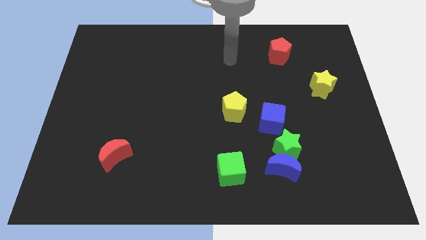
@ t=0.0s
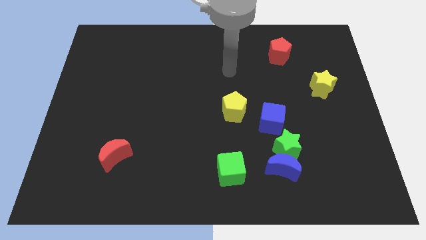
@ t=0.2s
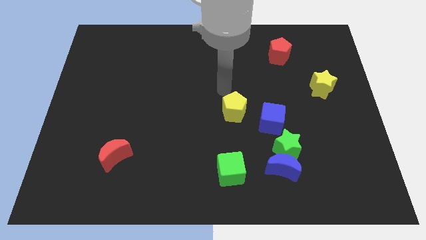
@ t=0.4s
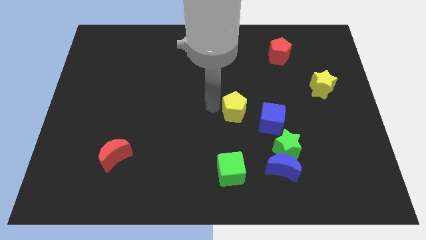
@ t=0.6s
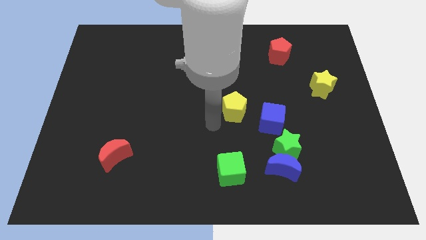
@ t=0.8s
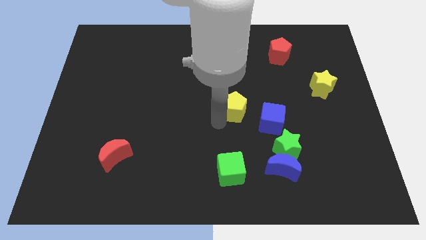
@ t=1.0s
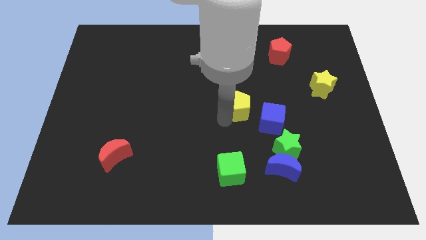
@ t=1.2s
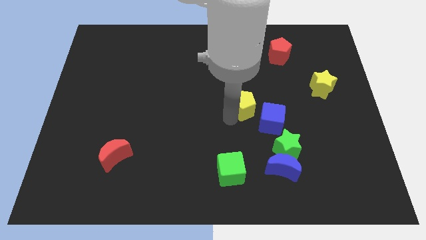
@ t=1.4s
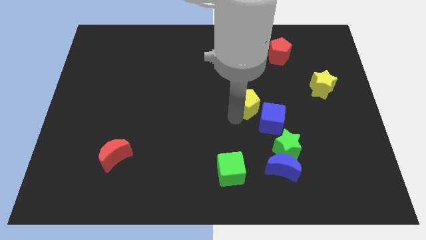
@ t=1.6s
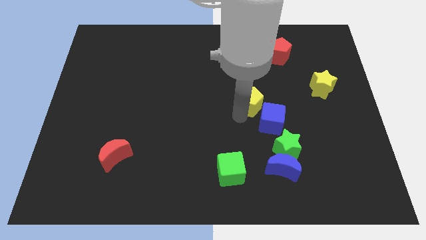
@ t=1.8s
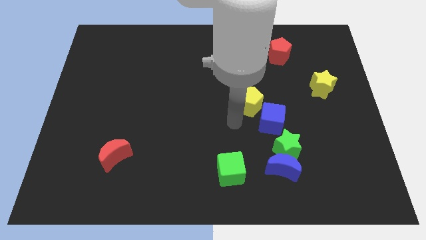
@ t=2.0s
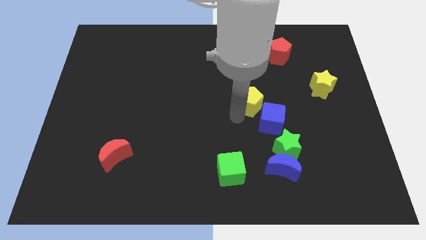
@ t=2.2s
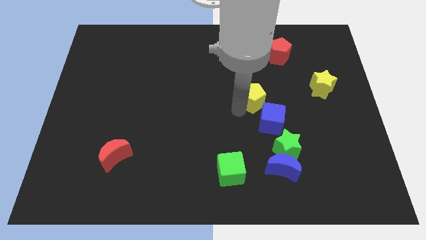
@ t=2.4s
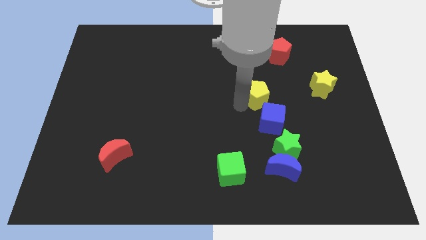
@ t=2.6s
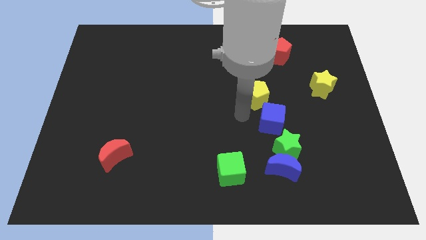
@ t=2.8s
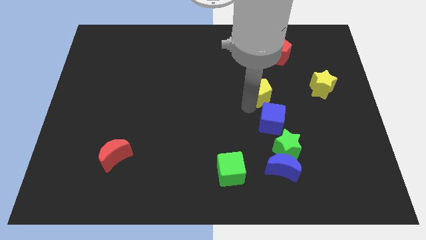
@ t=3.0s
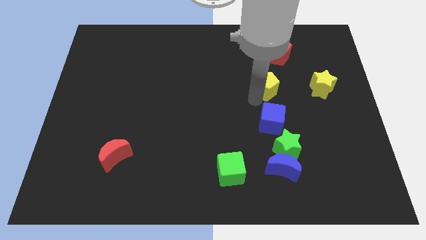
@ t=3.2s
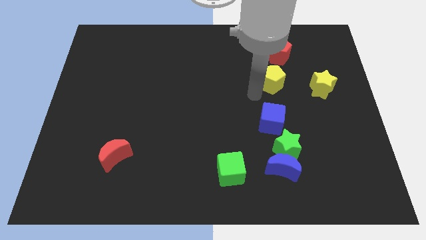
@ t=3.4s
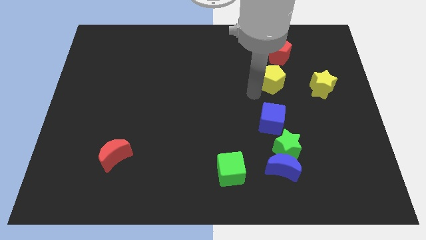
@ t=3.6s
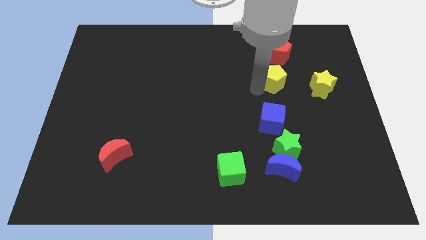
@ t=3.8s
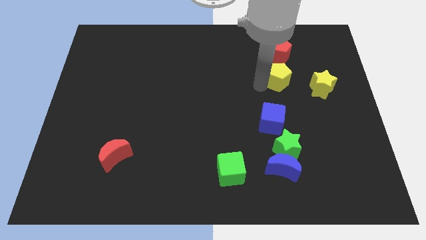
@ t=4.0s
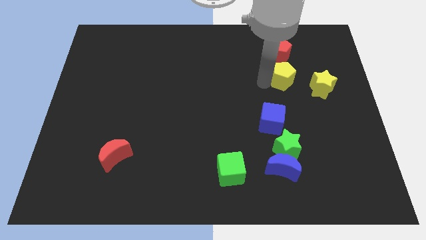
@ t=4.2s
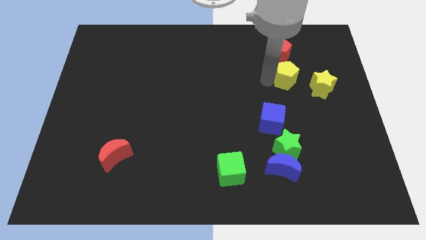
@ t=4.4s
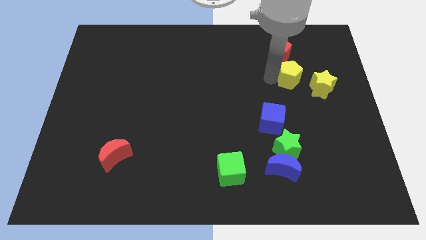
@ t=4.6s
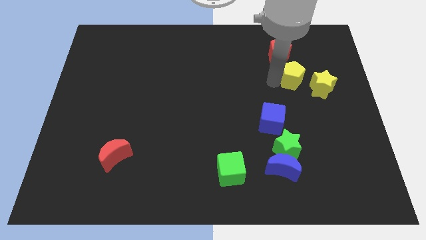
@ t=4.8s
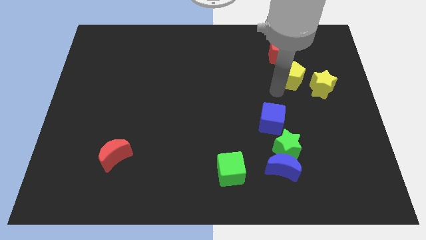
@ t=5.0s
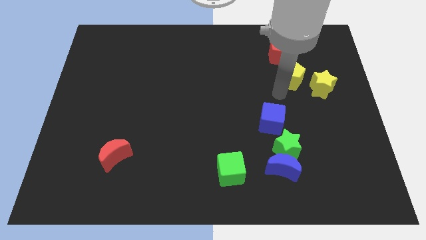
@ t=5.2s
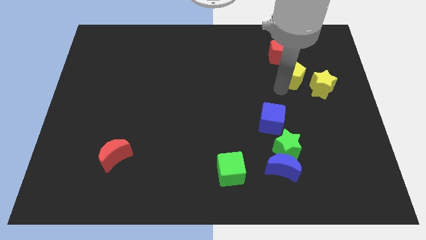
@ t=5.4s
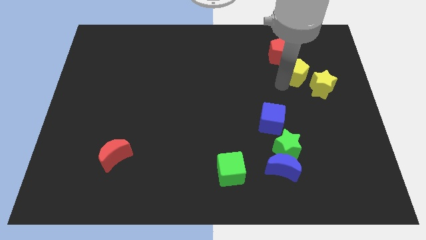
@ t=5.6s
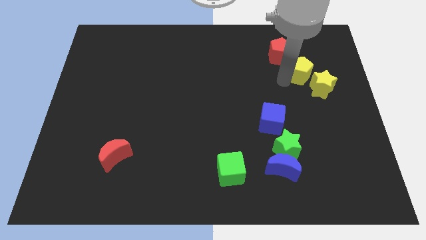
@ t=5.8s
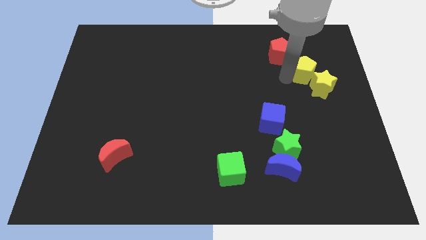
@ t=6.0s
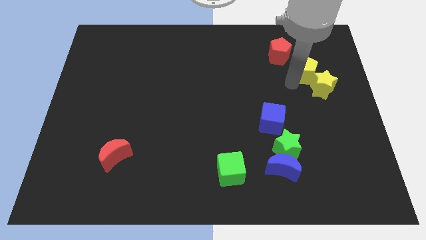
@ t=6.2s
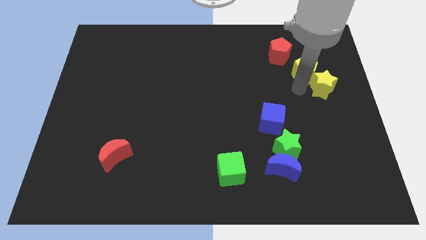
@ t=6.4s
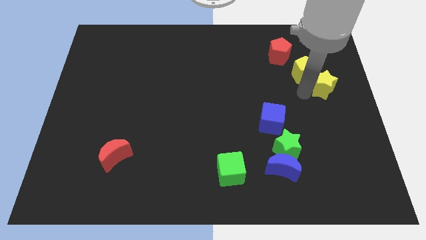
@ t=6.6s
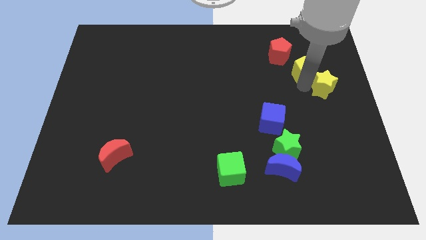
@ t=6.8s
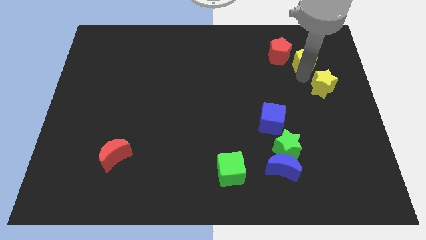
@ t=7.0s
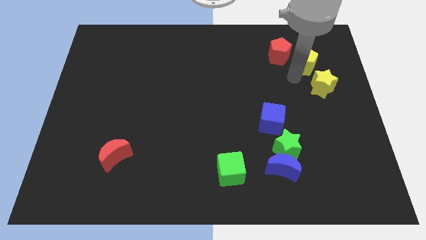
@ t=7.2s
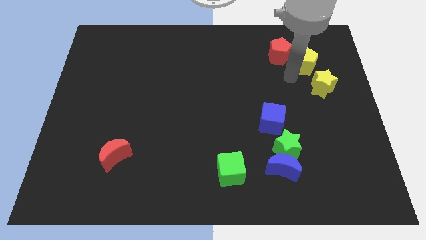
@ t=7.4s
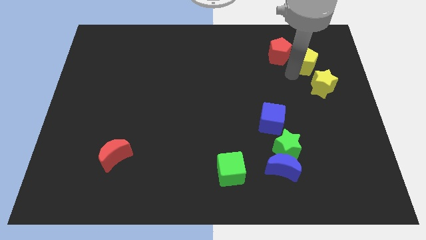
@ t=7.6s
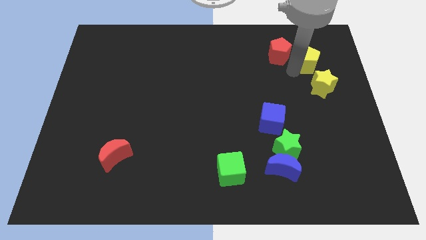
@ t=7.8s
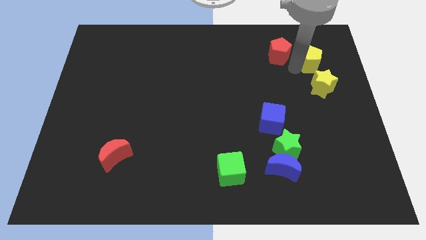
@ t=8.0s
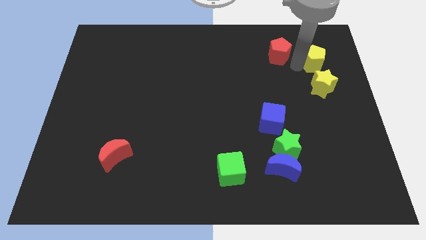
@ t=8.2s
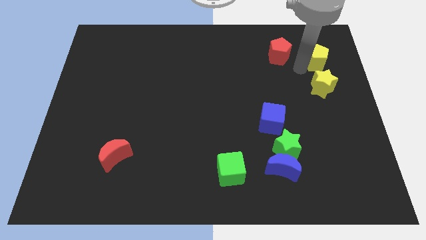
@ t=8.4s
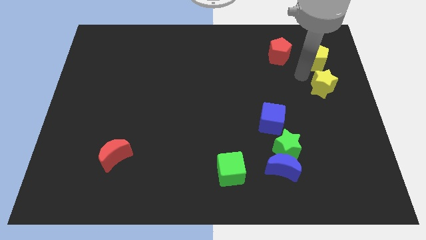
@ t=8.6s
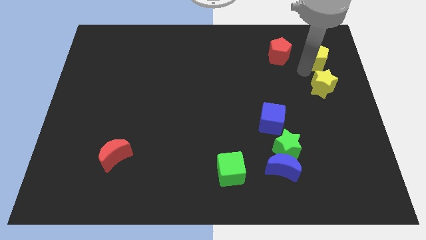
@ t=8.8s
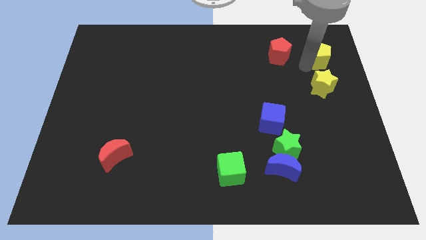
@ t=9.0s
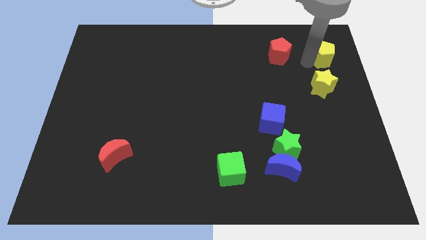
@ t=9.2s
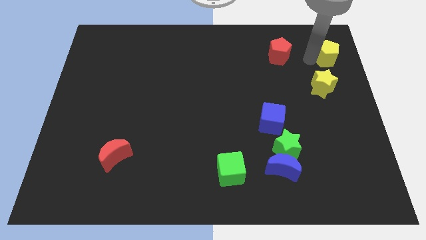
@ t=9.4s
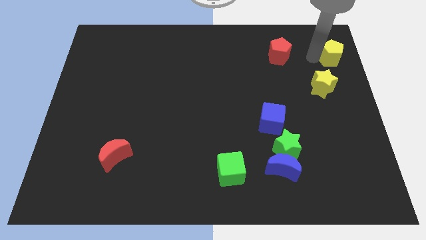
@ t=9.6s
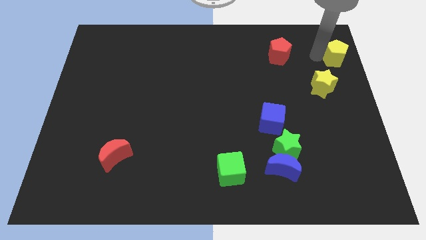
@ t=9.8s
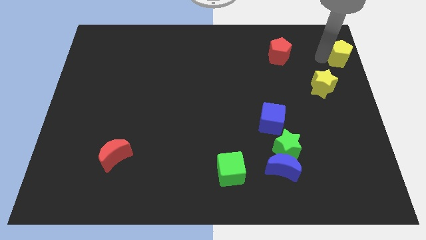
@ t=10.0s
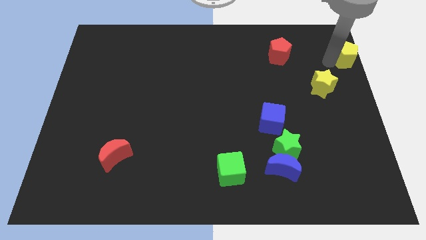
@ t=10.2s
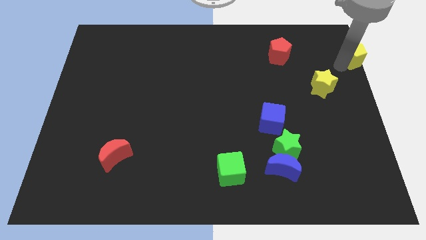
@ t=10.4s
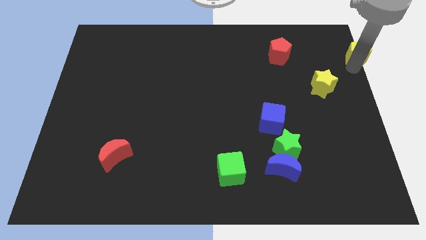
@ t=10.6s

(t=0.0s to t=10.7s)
move the yellow pentagon to the upper right corner
